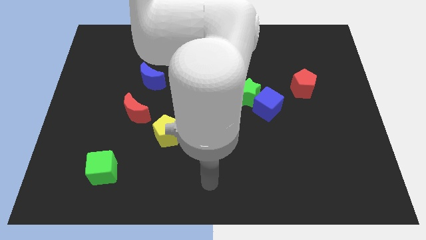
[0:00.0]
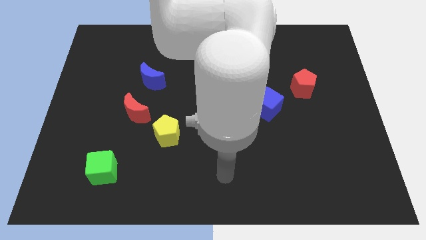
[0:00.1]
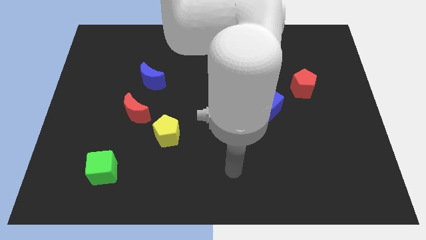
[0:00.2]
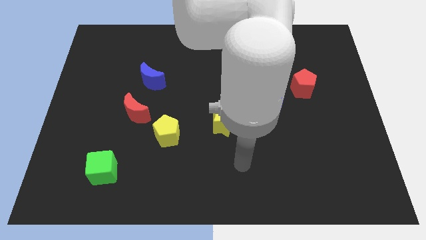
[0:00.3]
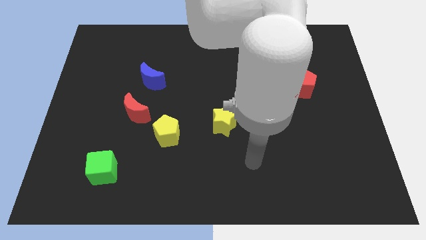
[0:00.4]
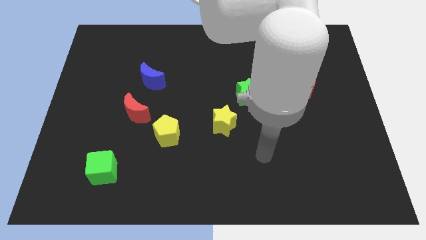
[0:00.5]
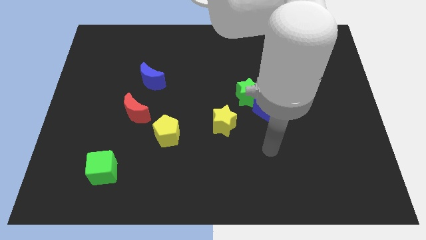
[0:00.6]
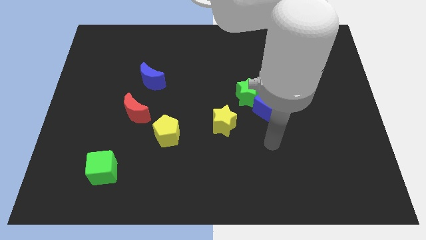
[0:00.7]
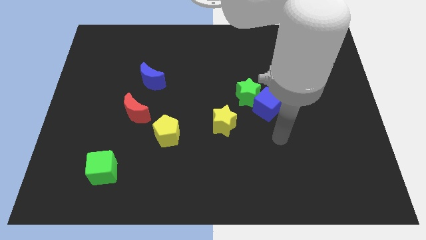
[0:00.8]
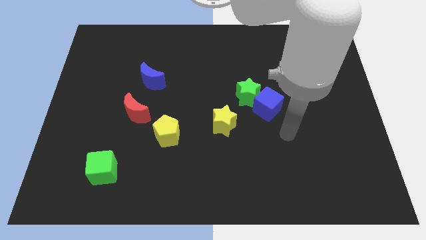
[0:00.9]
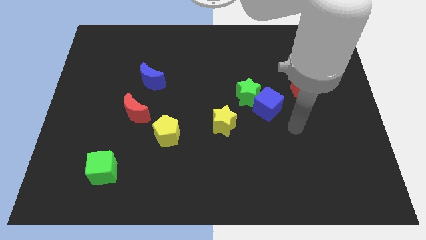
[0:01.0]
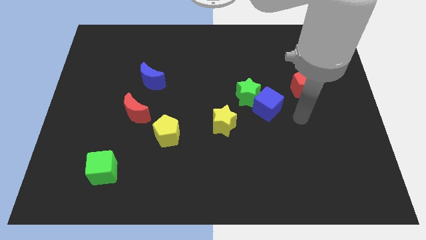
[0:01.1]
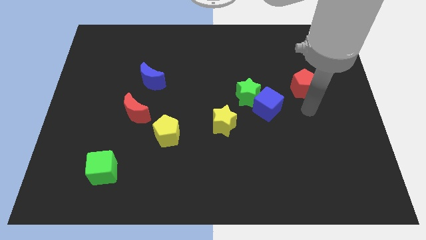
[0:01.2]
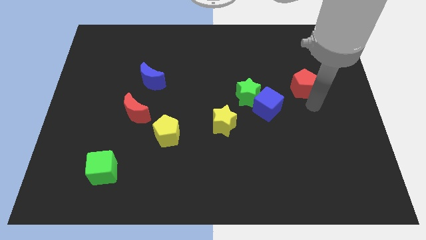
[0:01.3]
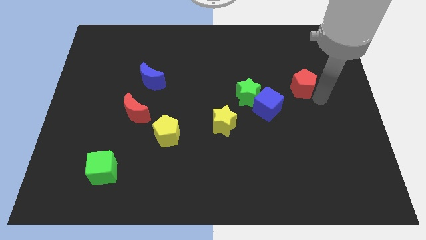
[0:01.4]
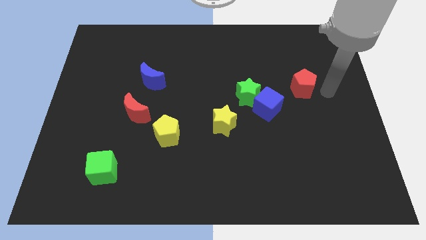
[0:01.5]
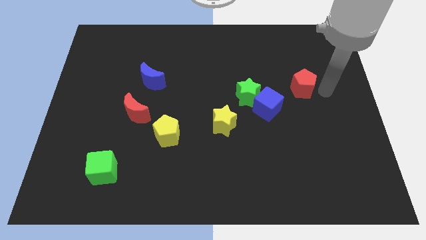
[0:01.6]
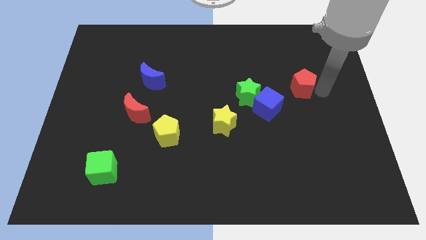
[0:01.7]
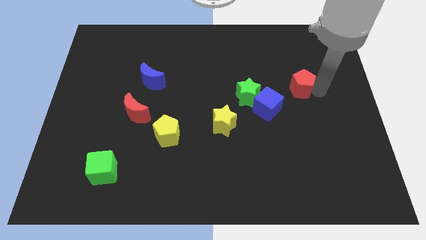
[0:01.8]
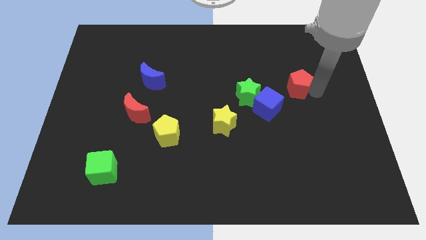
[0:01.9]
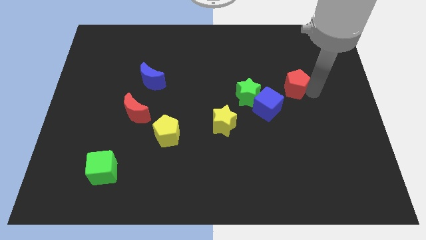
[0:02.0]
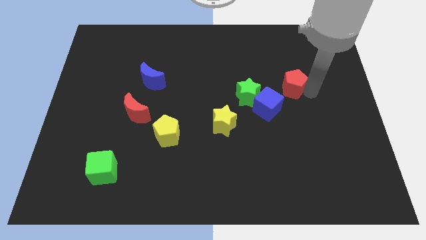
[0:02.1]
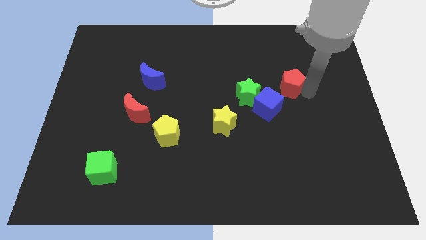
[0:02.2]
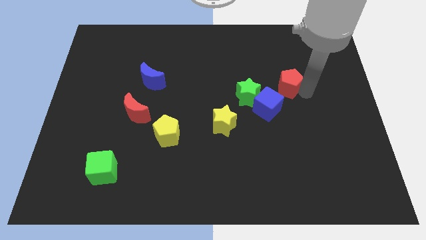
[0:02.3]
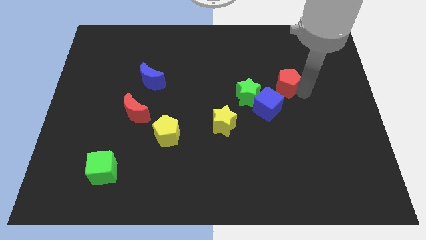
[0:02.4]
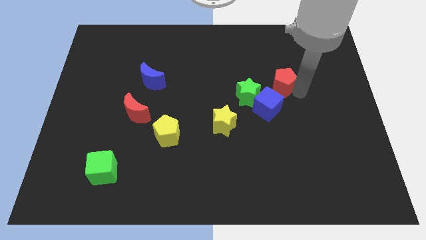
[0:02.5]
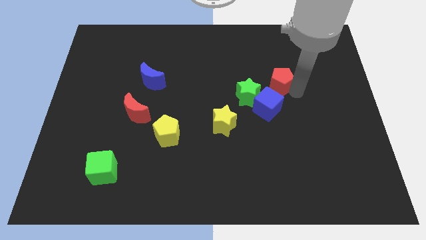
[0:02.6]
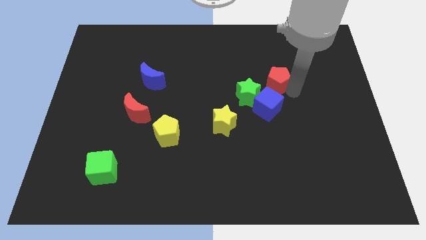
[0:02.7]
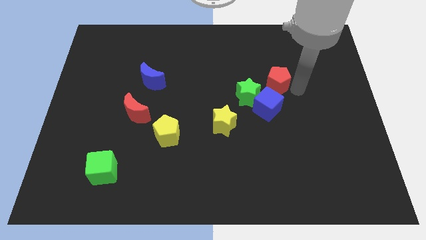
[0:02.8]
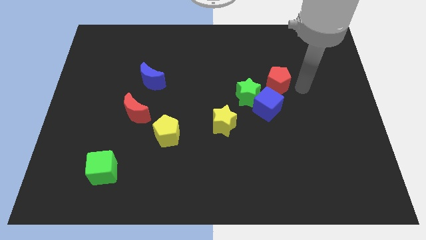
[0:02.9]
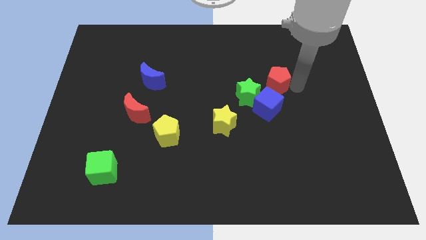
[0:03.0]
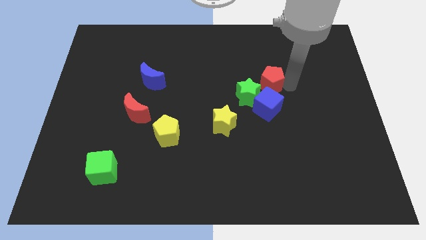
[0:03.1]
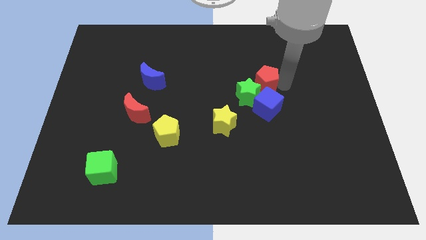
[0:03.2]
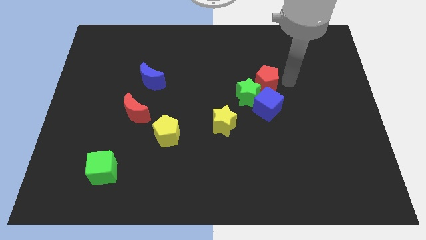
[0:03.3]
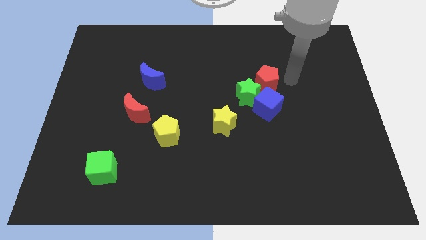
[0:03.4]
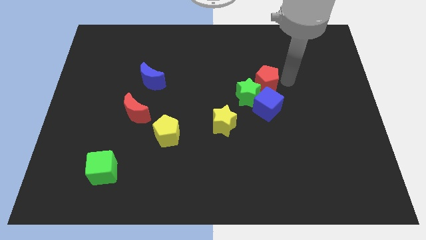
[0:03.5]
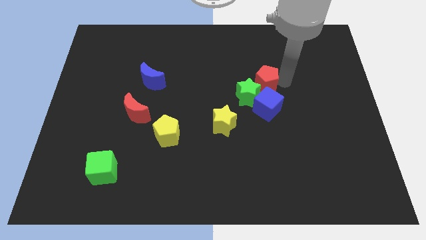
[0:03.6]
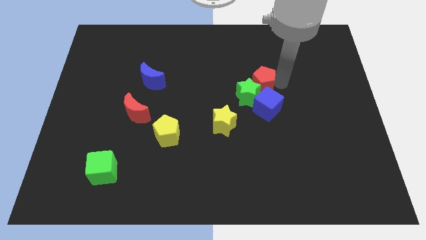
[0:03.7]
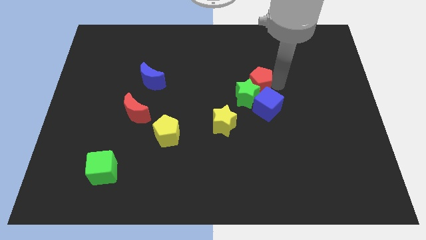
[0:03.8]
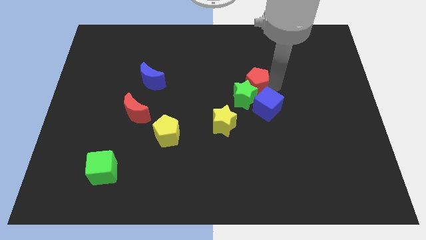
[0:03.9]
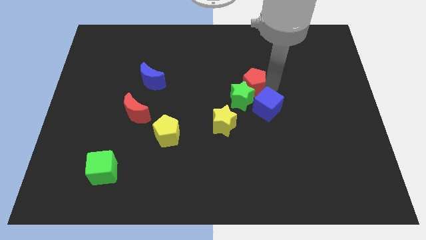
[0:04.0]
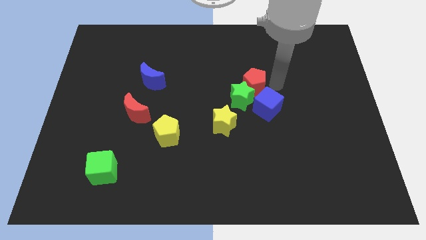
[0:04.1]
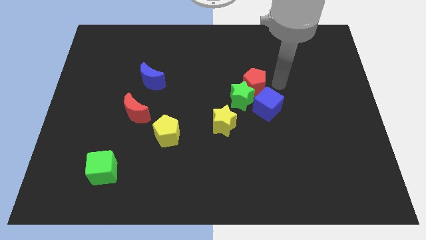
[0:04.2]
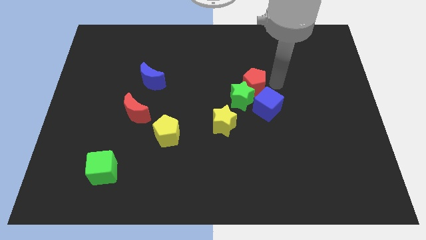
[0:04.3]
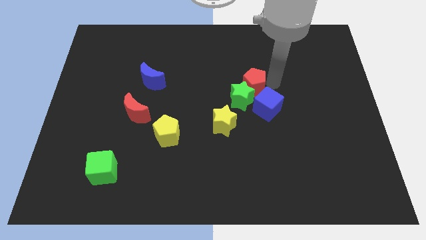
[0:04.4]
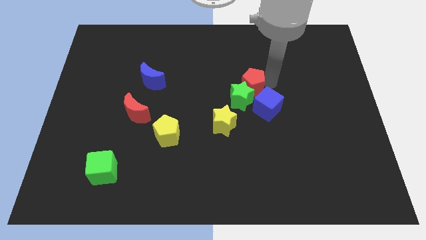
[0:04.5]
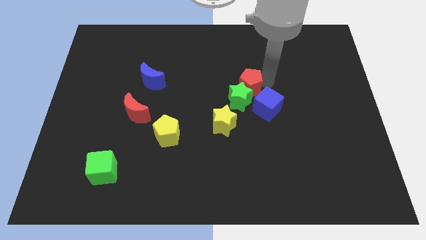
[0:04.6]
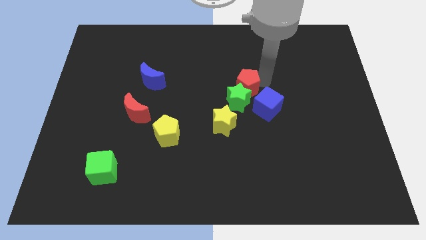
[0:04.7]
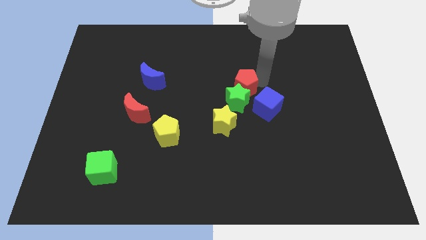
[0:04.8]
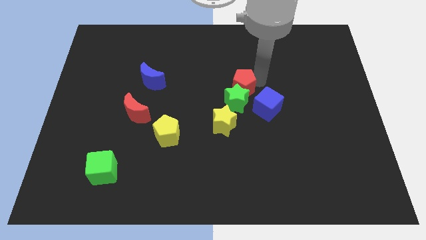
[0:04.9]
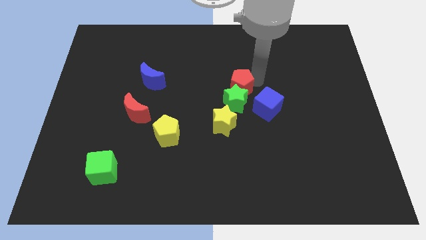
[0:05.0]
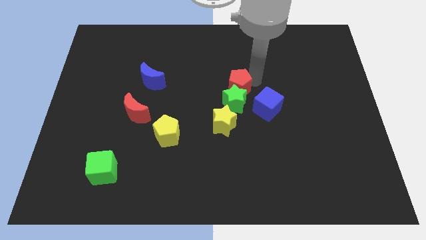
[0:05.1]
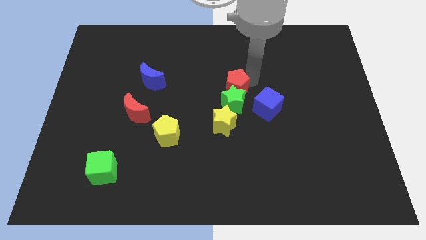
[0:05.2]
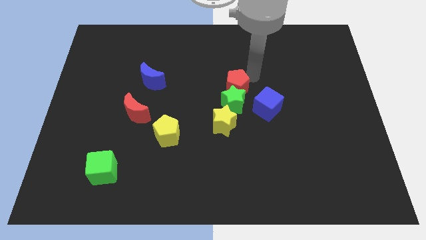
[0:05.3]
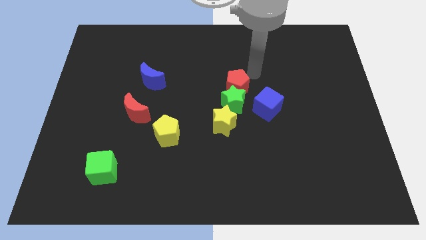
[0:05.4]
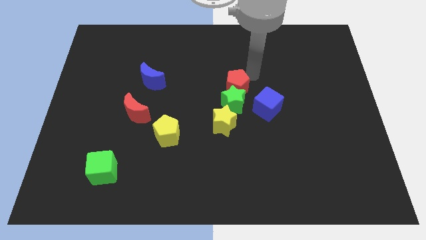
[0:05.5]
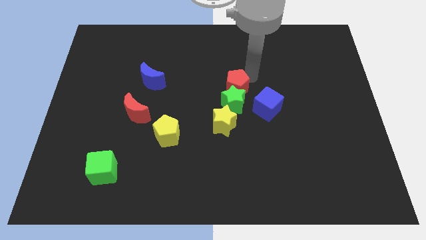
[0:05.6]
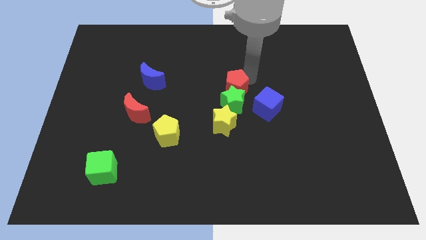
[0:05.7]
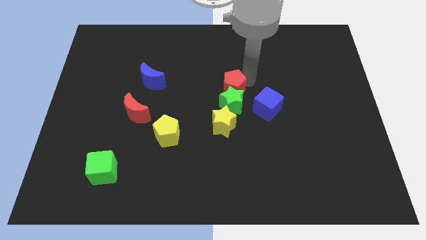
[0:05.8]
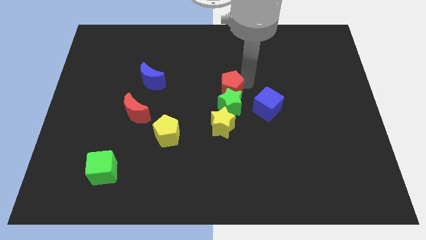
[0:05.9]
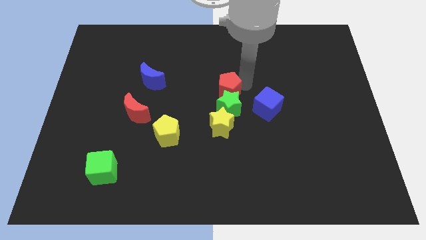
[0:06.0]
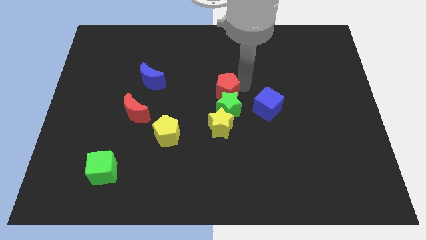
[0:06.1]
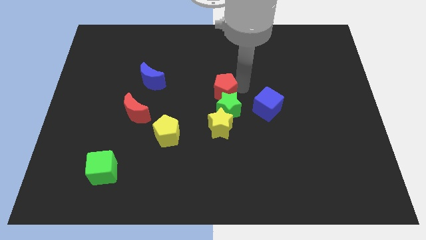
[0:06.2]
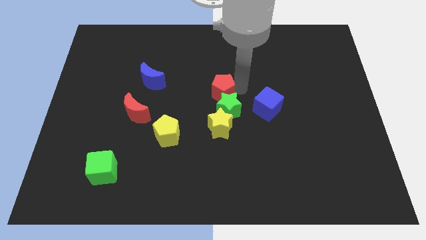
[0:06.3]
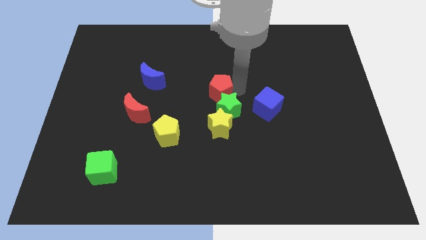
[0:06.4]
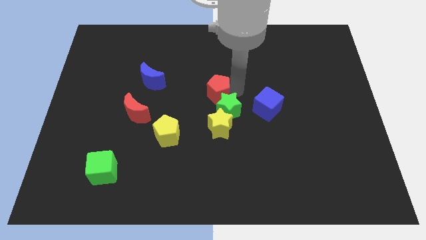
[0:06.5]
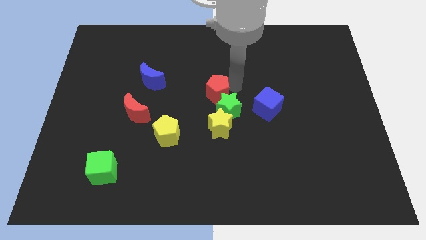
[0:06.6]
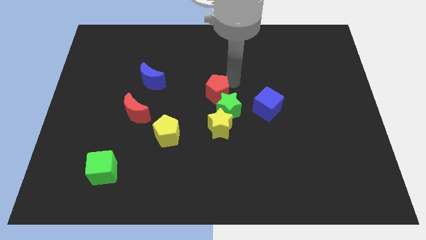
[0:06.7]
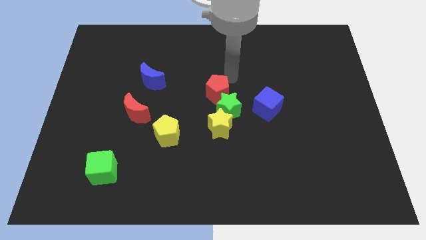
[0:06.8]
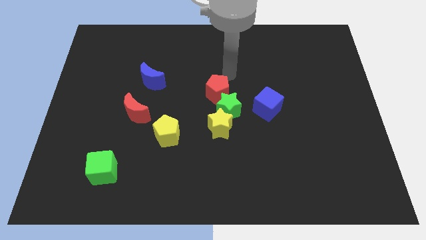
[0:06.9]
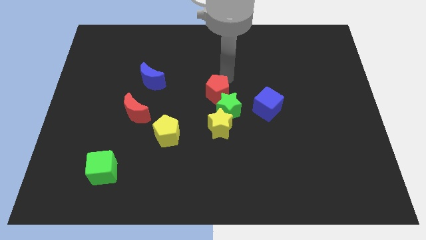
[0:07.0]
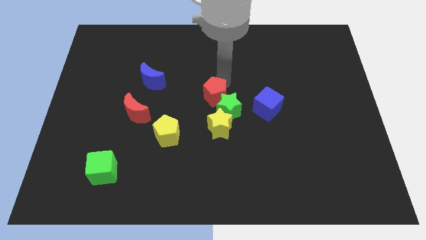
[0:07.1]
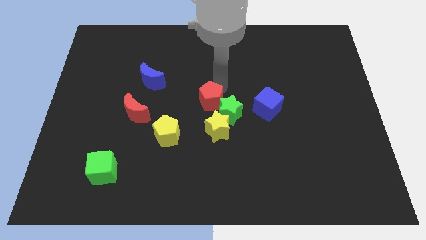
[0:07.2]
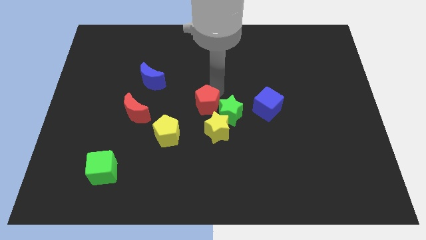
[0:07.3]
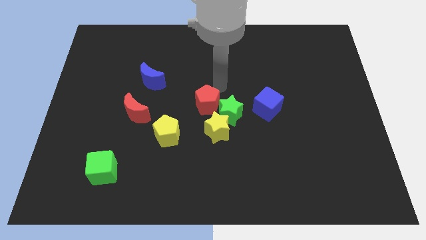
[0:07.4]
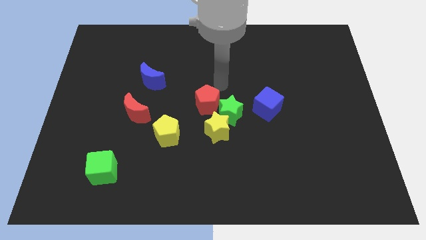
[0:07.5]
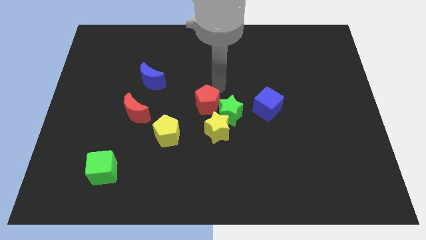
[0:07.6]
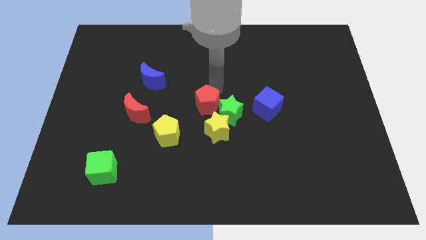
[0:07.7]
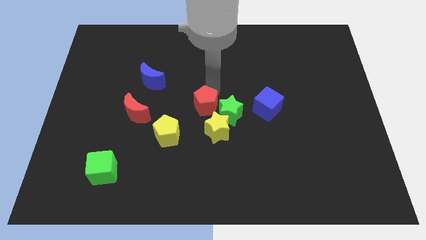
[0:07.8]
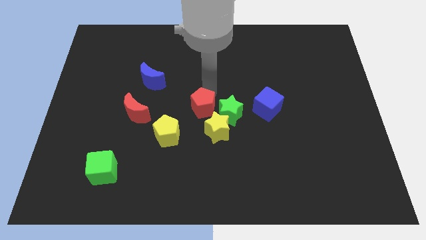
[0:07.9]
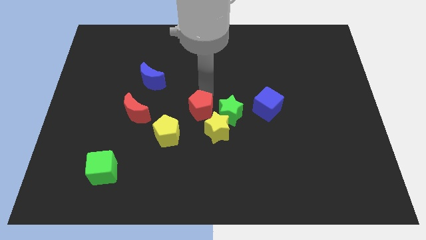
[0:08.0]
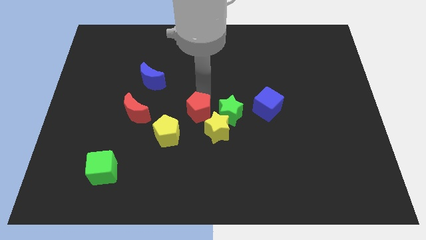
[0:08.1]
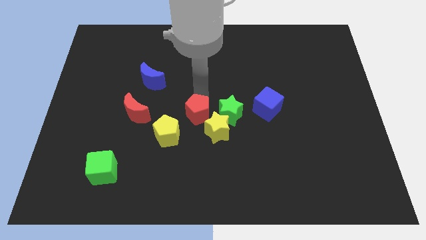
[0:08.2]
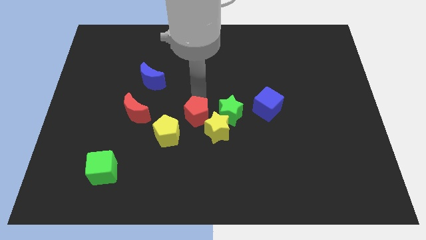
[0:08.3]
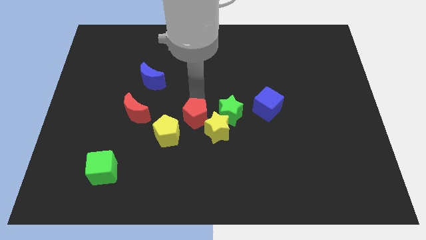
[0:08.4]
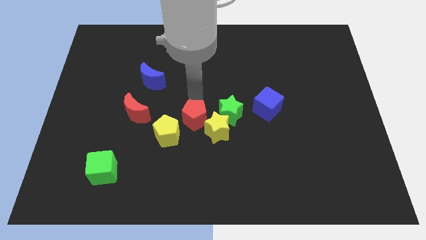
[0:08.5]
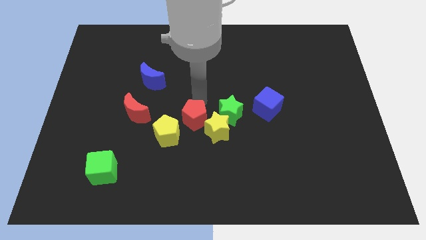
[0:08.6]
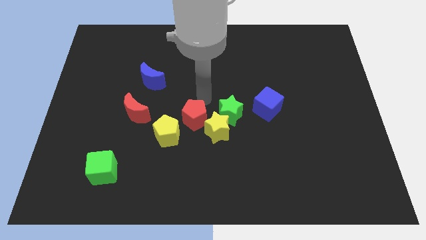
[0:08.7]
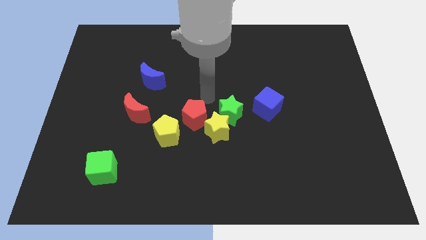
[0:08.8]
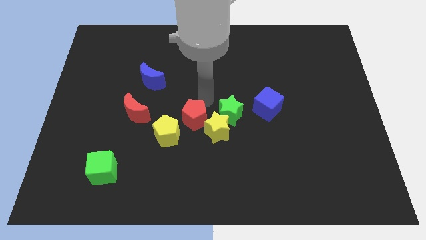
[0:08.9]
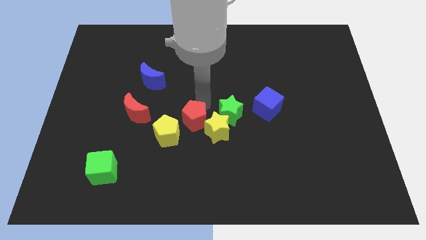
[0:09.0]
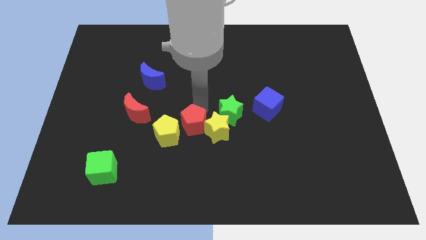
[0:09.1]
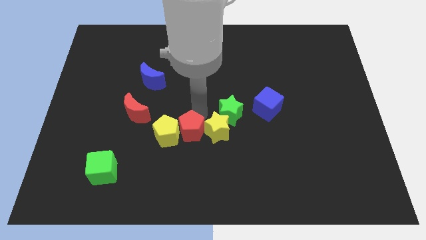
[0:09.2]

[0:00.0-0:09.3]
move the red pentagon close to the yellow pentagon
